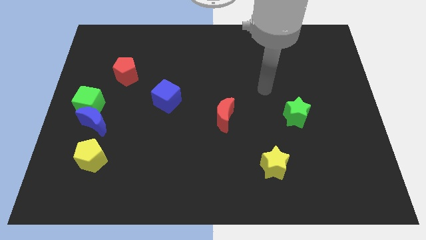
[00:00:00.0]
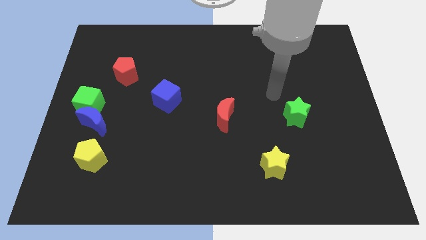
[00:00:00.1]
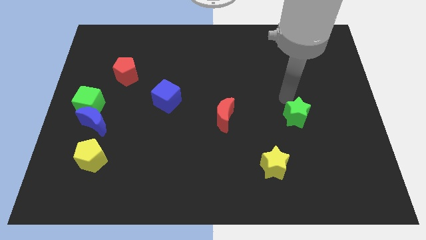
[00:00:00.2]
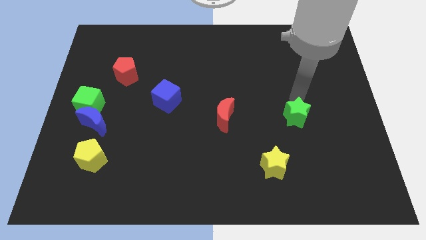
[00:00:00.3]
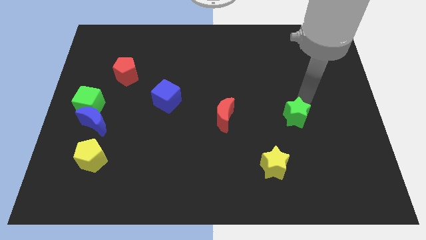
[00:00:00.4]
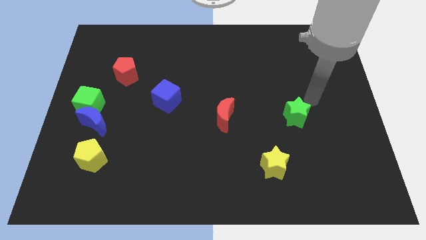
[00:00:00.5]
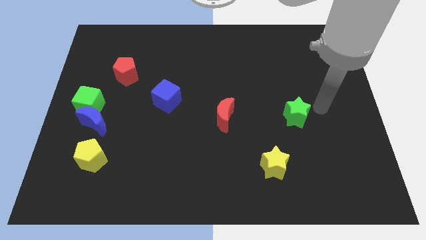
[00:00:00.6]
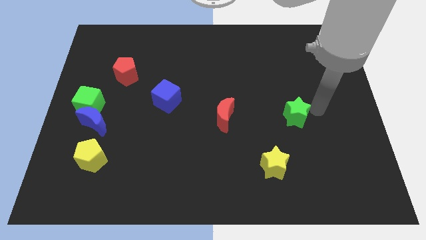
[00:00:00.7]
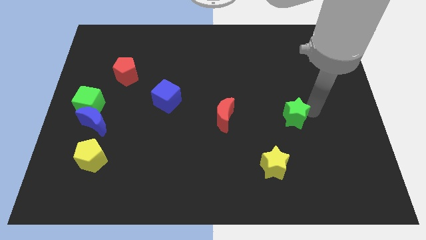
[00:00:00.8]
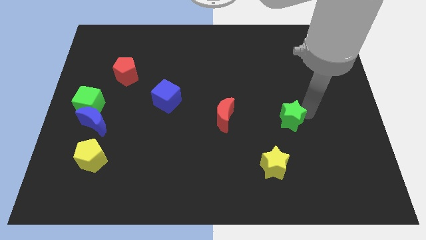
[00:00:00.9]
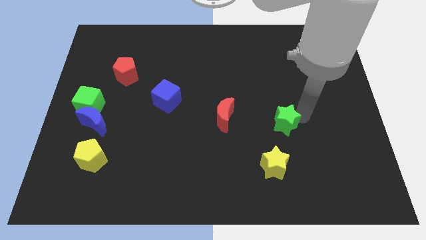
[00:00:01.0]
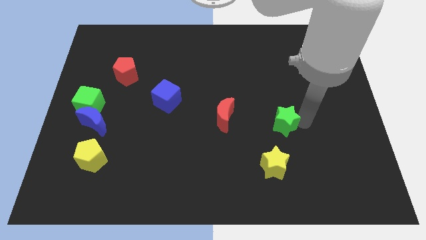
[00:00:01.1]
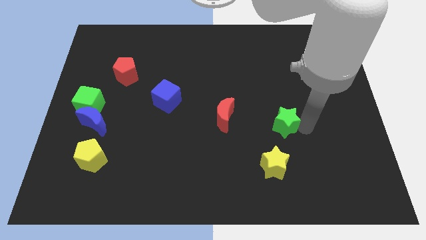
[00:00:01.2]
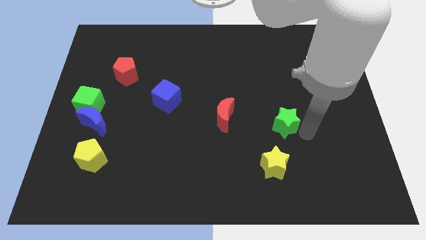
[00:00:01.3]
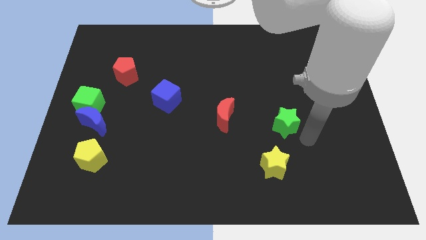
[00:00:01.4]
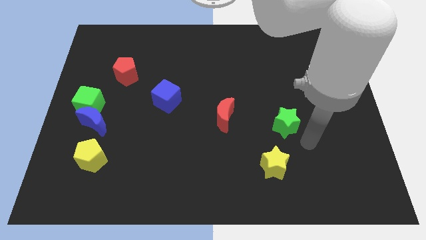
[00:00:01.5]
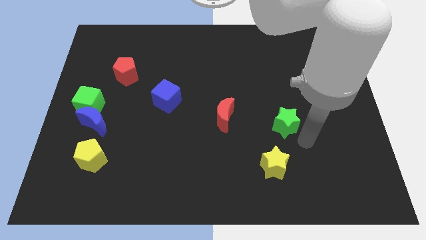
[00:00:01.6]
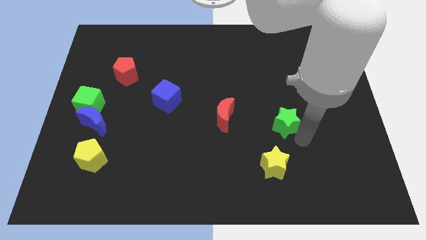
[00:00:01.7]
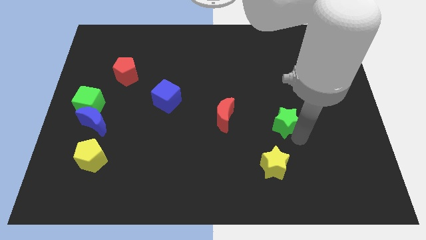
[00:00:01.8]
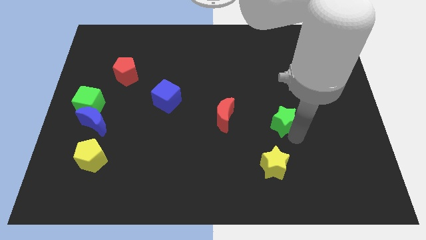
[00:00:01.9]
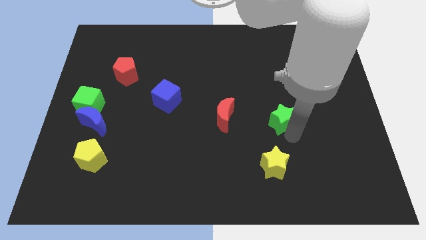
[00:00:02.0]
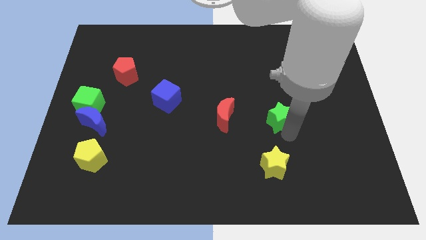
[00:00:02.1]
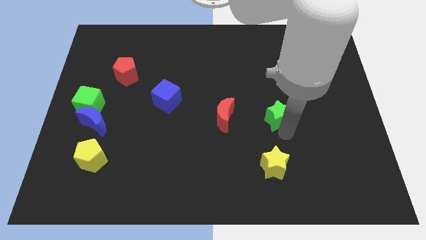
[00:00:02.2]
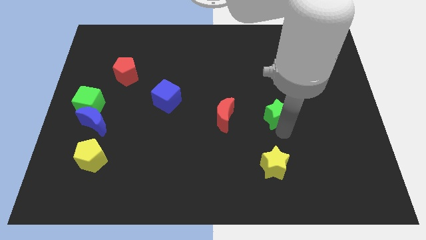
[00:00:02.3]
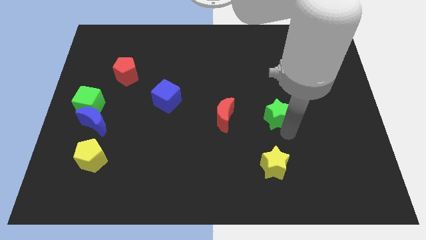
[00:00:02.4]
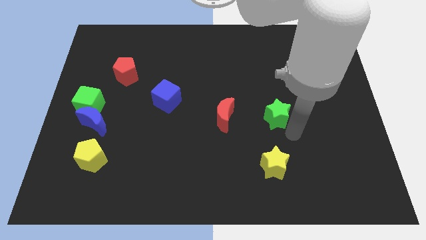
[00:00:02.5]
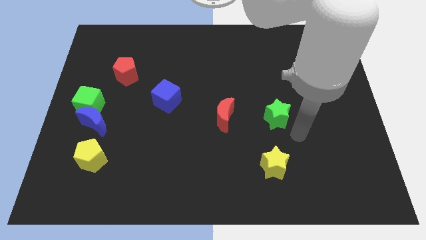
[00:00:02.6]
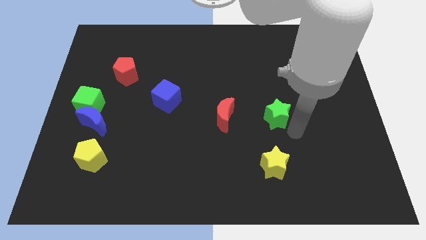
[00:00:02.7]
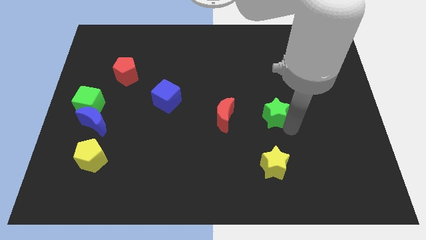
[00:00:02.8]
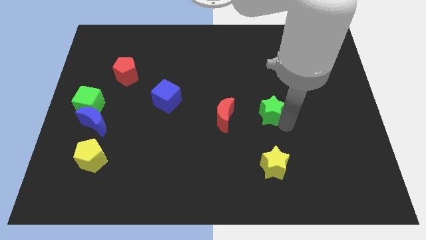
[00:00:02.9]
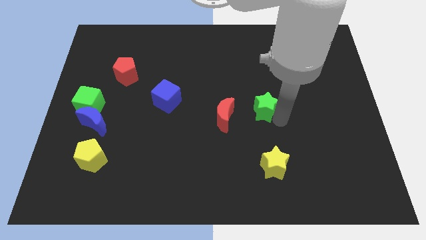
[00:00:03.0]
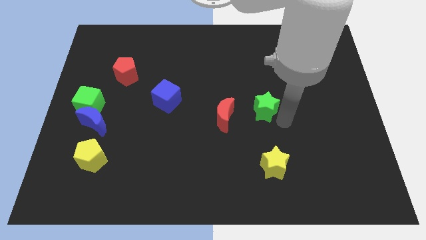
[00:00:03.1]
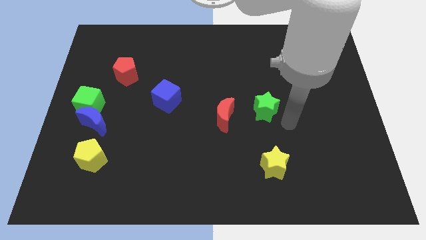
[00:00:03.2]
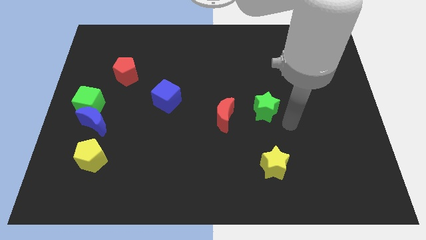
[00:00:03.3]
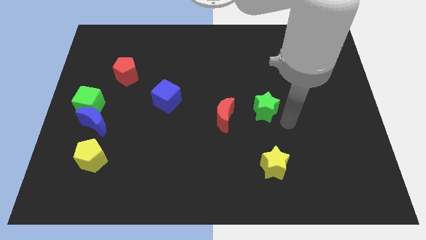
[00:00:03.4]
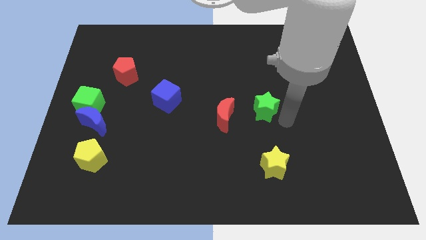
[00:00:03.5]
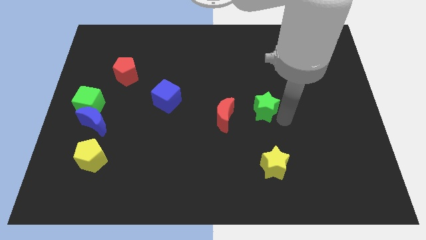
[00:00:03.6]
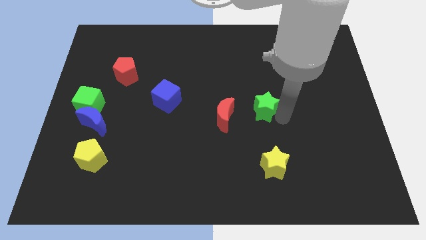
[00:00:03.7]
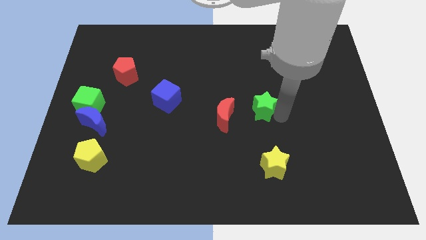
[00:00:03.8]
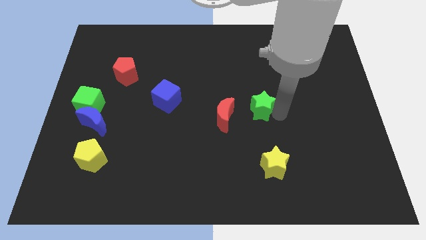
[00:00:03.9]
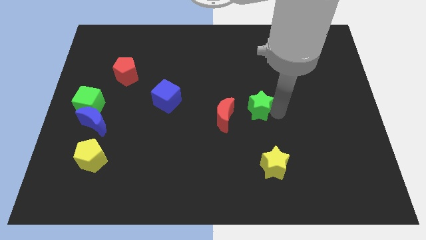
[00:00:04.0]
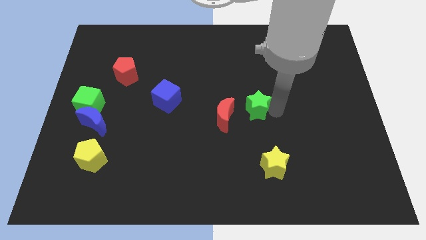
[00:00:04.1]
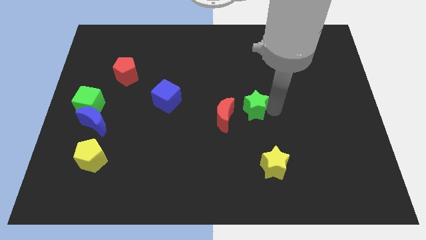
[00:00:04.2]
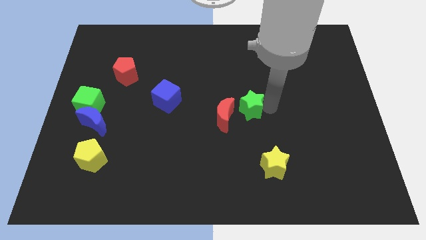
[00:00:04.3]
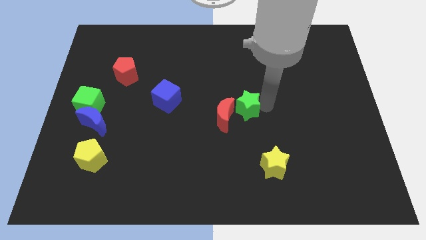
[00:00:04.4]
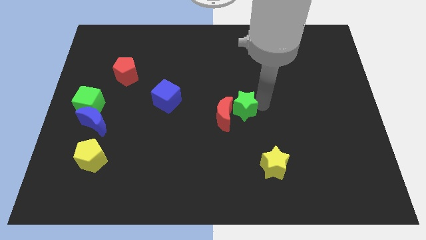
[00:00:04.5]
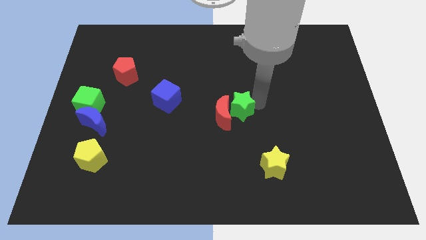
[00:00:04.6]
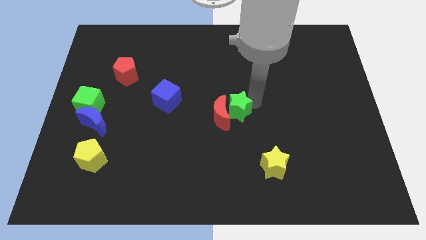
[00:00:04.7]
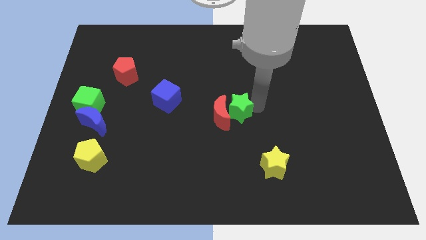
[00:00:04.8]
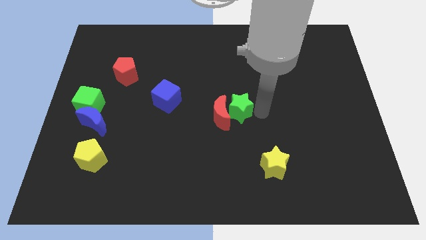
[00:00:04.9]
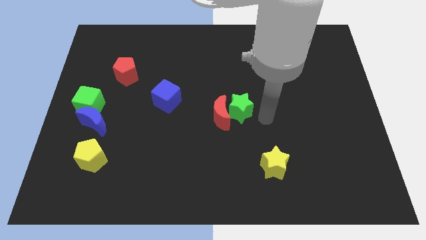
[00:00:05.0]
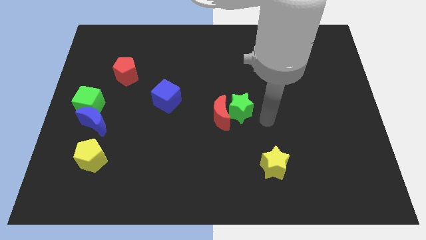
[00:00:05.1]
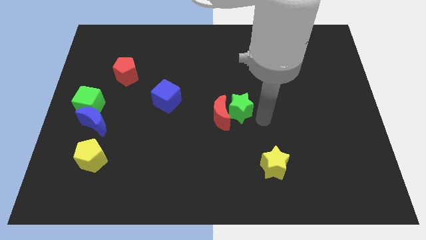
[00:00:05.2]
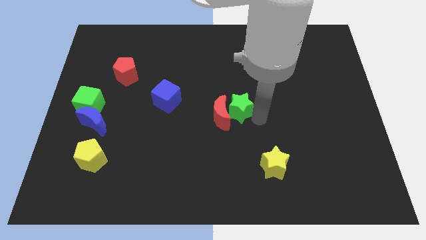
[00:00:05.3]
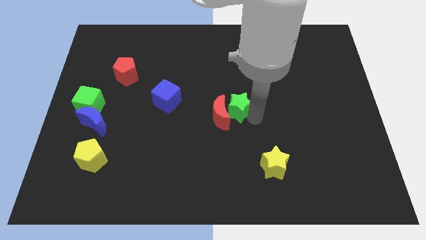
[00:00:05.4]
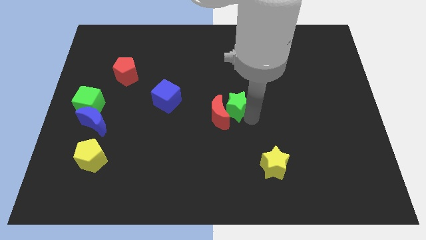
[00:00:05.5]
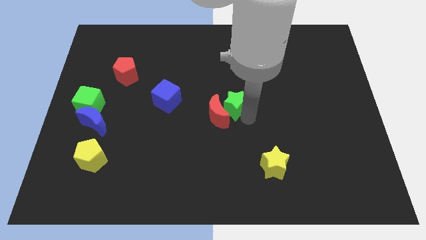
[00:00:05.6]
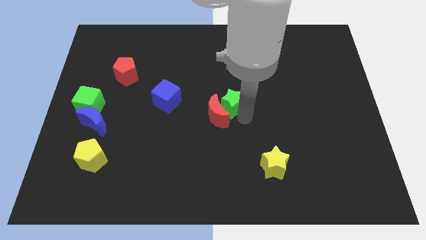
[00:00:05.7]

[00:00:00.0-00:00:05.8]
put the green star just right of the blue cube

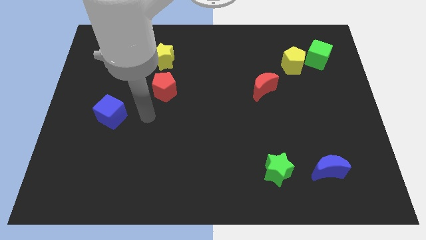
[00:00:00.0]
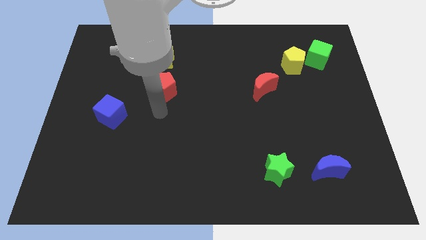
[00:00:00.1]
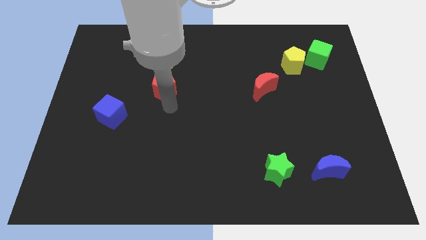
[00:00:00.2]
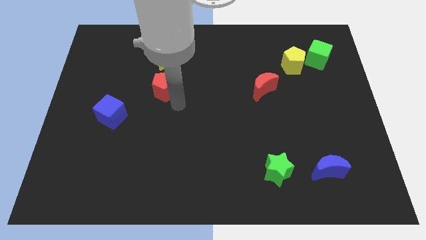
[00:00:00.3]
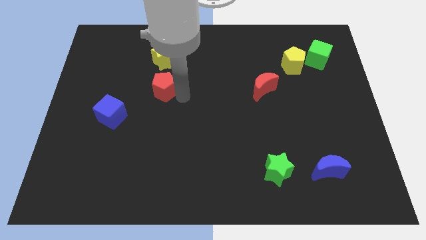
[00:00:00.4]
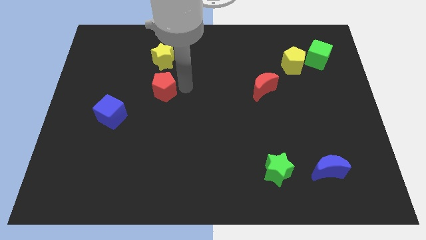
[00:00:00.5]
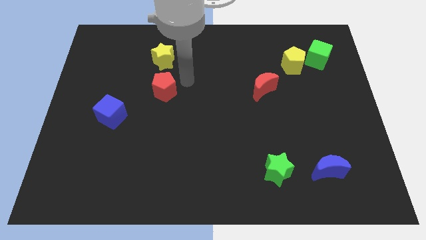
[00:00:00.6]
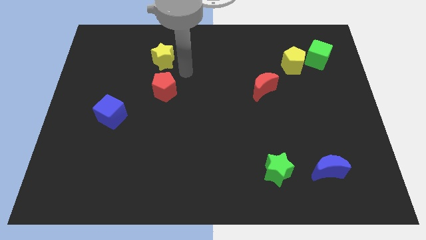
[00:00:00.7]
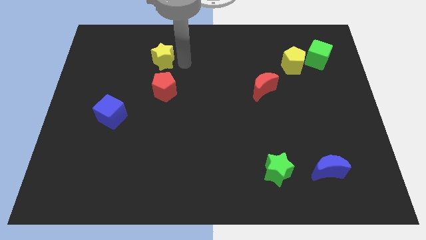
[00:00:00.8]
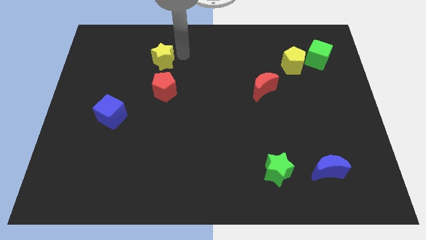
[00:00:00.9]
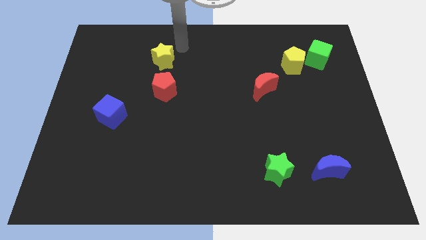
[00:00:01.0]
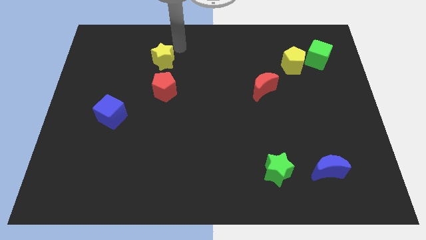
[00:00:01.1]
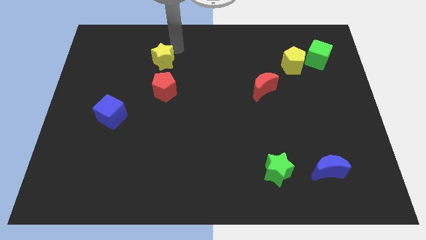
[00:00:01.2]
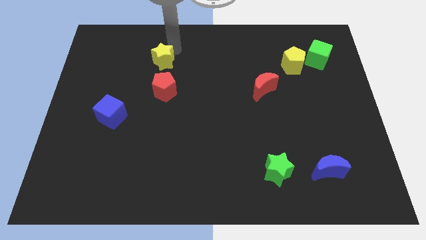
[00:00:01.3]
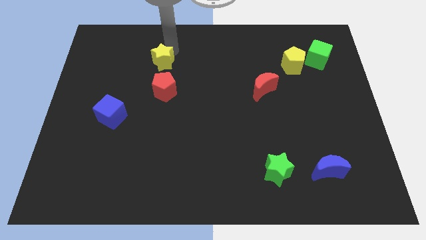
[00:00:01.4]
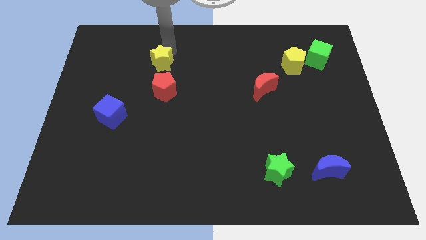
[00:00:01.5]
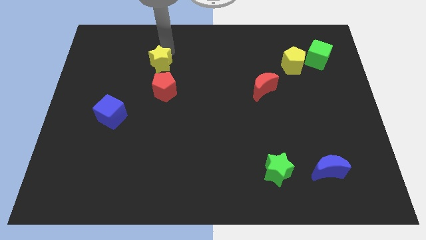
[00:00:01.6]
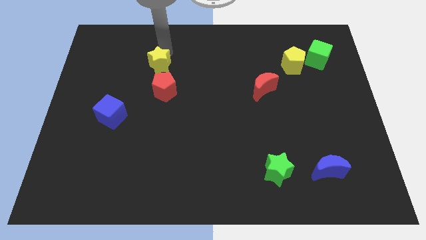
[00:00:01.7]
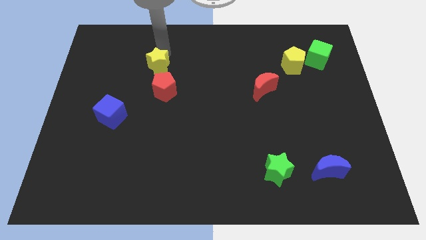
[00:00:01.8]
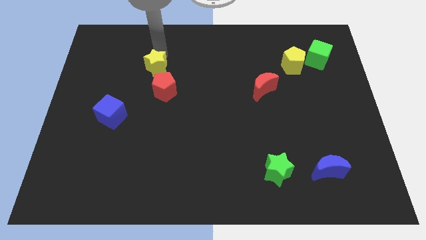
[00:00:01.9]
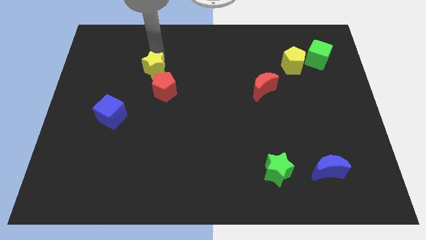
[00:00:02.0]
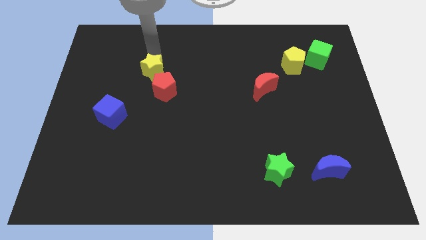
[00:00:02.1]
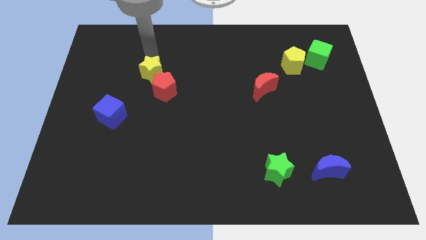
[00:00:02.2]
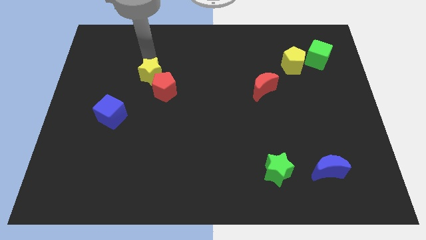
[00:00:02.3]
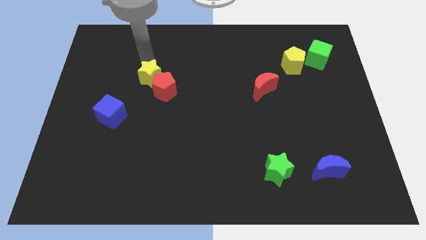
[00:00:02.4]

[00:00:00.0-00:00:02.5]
push the yellow star just left of the red pentagon
